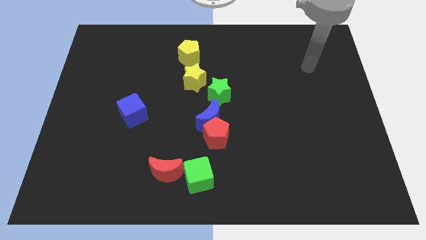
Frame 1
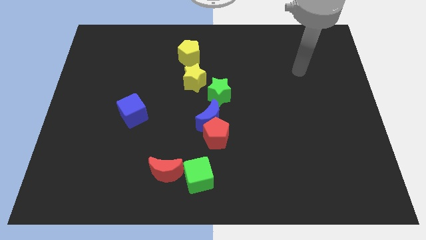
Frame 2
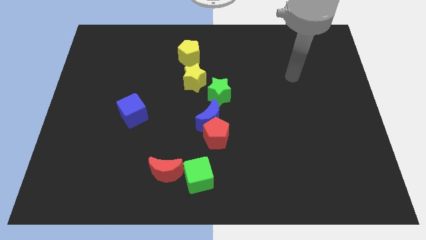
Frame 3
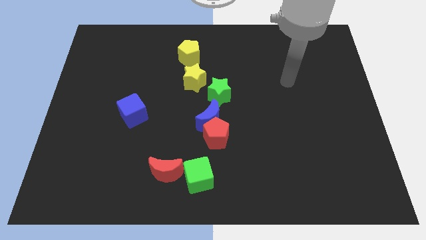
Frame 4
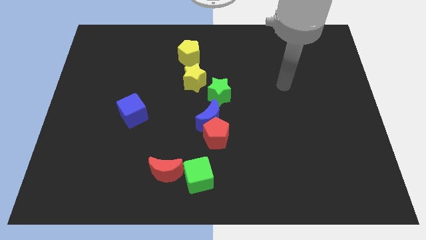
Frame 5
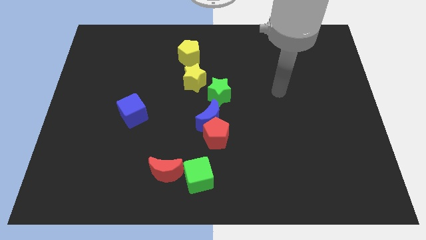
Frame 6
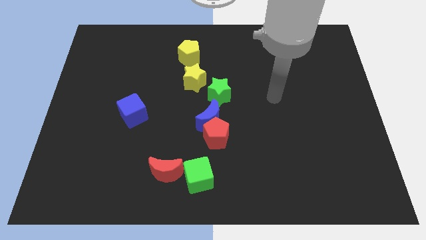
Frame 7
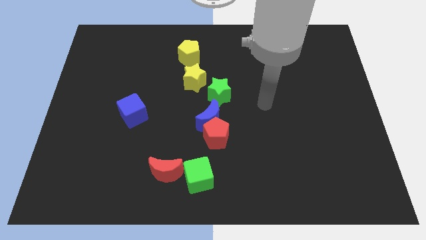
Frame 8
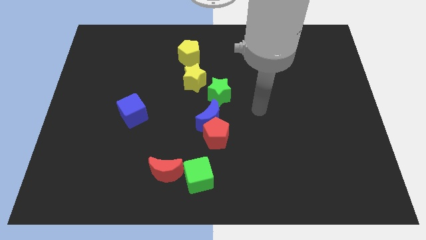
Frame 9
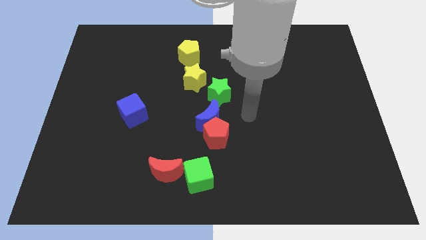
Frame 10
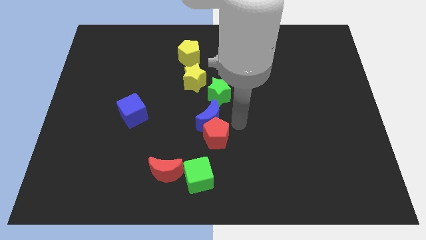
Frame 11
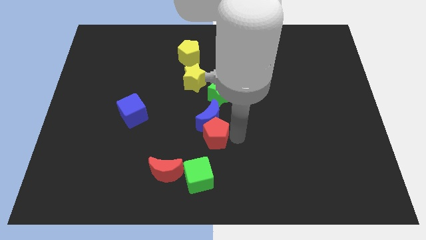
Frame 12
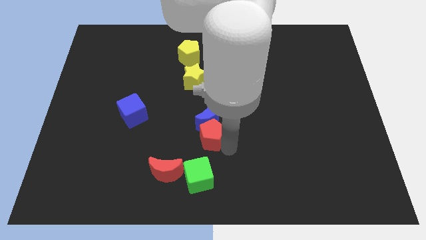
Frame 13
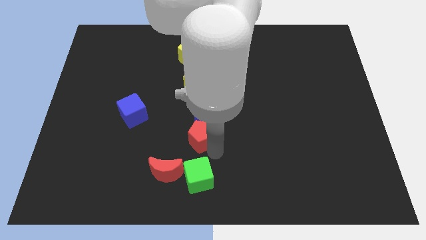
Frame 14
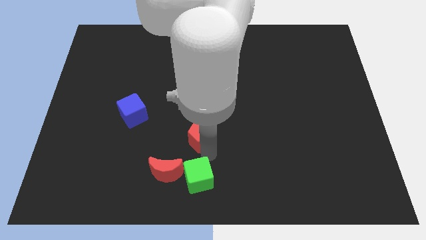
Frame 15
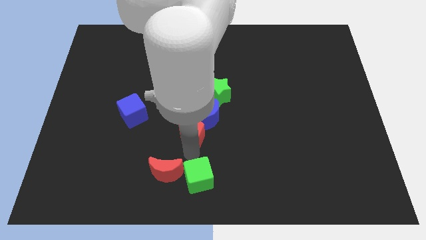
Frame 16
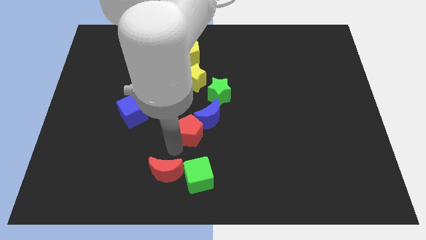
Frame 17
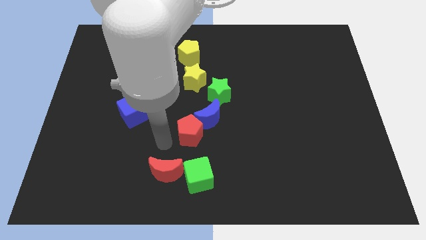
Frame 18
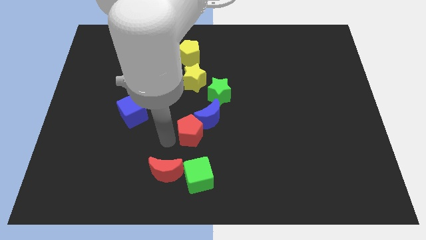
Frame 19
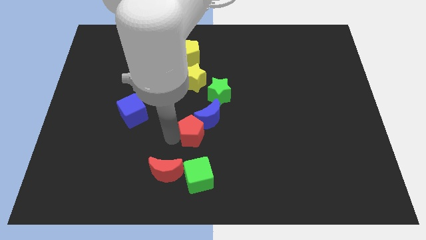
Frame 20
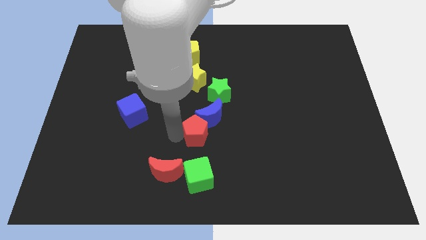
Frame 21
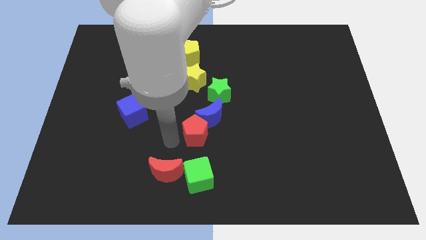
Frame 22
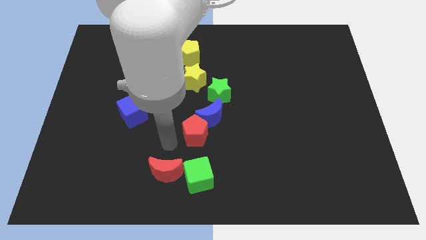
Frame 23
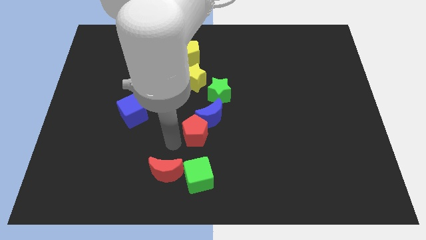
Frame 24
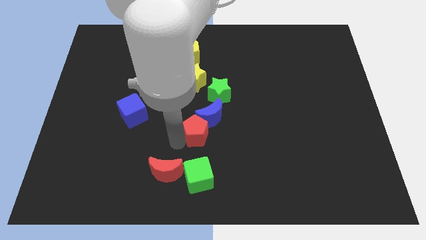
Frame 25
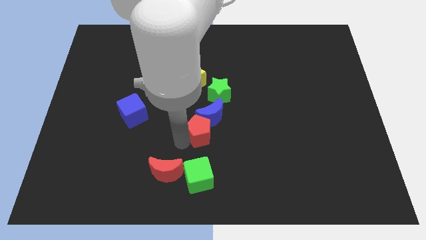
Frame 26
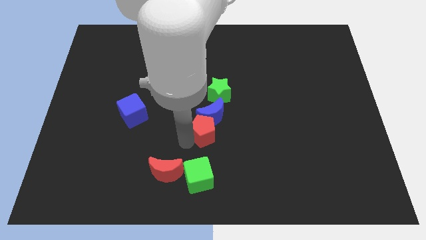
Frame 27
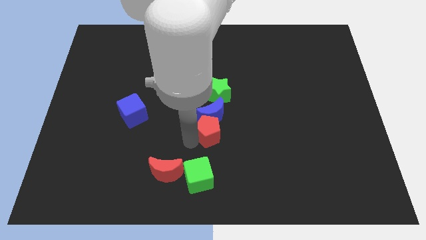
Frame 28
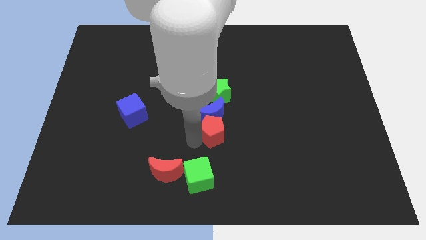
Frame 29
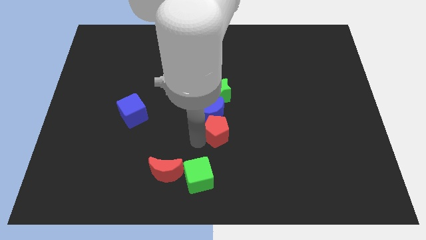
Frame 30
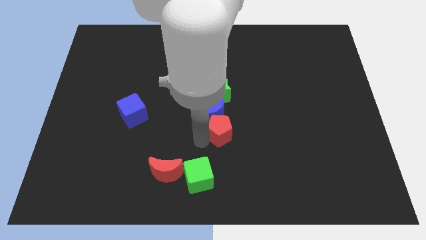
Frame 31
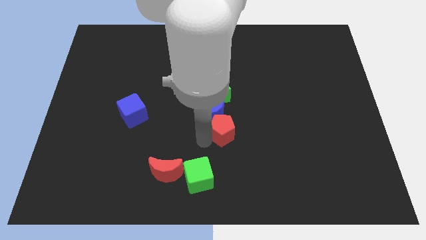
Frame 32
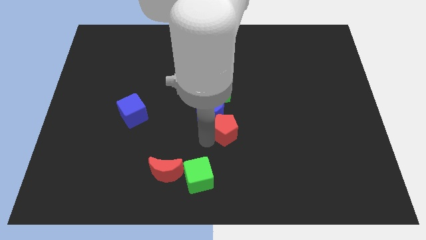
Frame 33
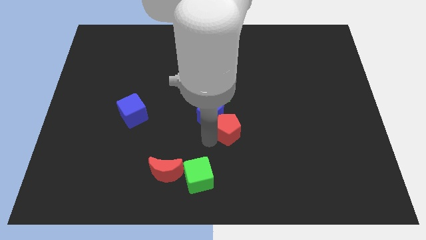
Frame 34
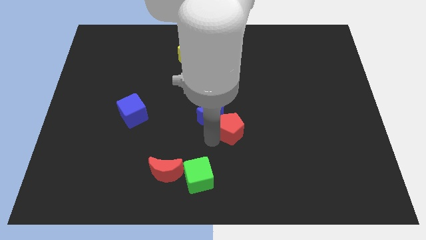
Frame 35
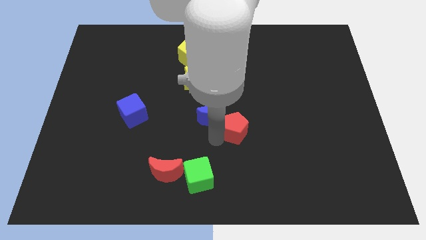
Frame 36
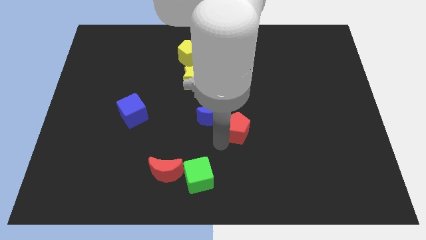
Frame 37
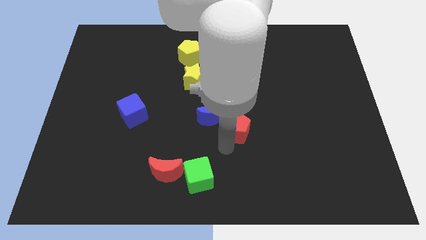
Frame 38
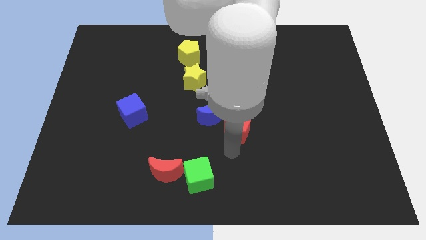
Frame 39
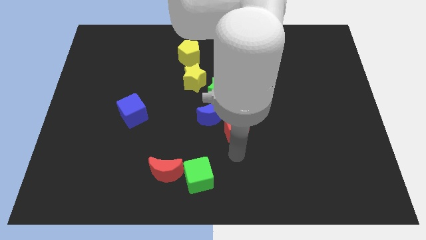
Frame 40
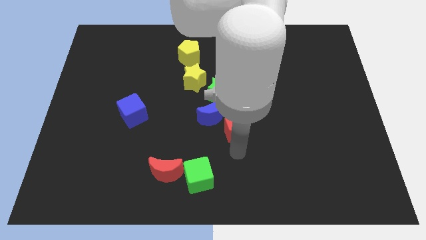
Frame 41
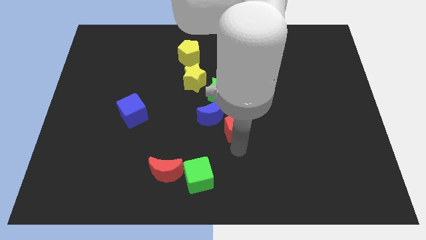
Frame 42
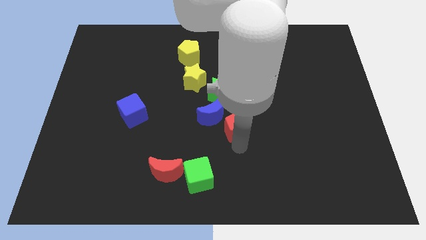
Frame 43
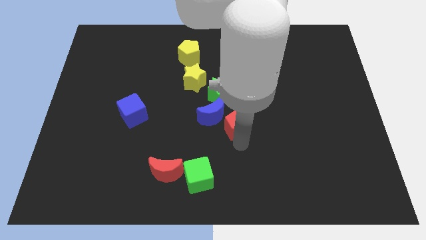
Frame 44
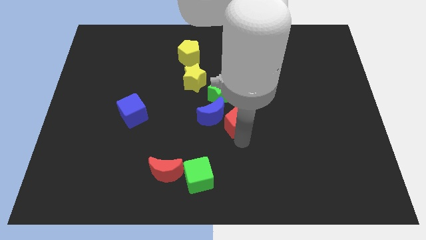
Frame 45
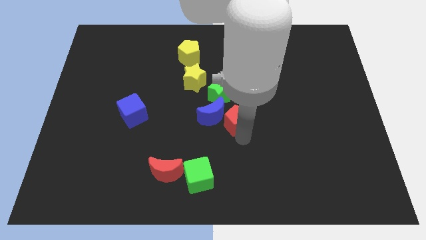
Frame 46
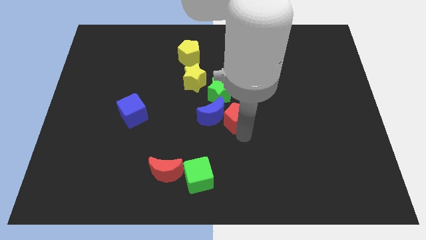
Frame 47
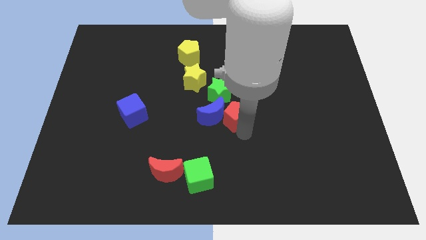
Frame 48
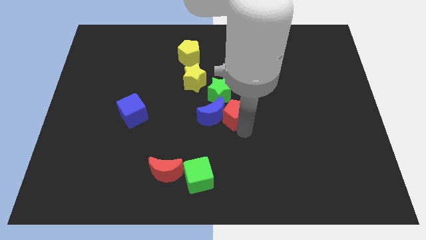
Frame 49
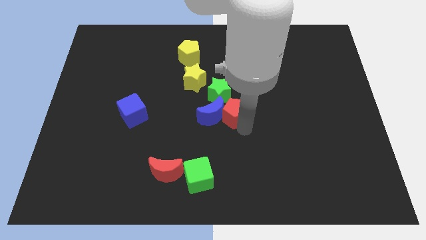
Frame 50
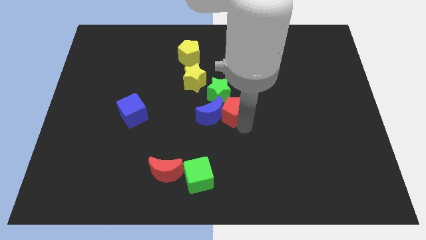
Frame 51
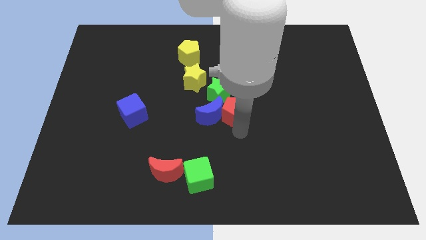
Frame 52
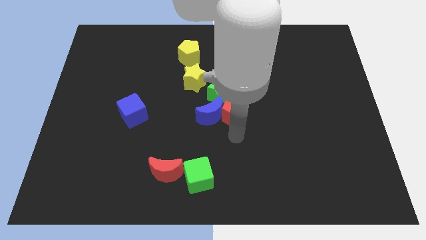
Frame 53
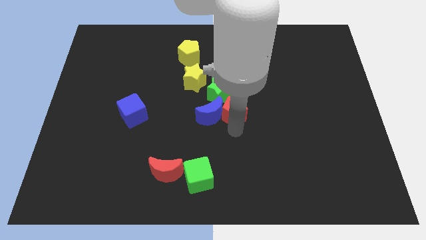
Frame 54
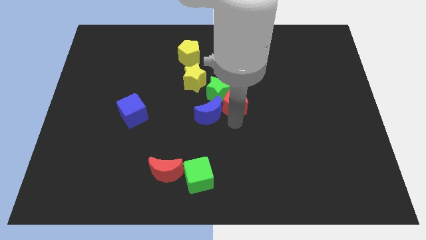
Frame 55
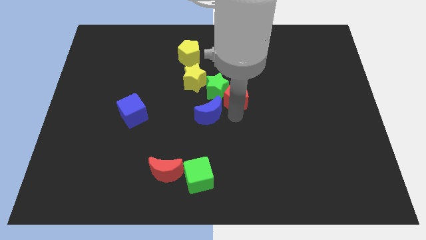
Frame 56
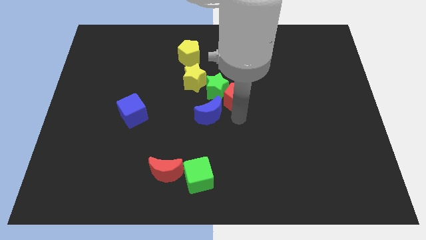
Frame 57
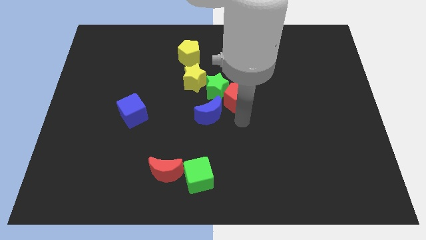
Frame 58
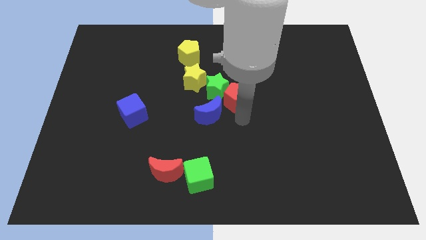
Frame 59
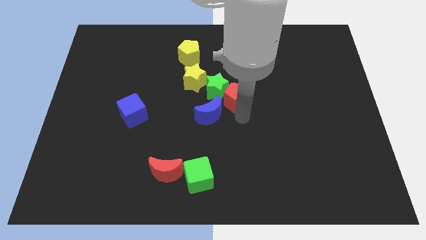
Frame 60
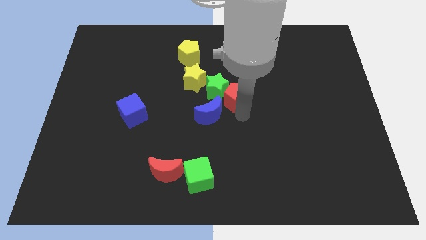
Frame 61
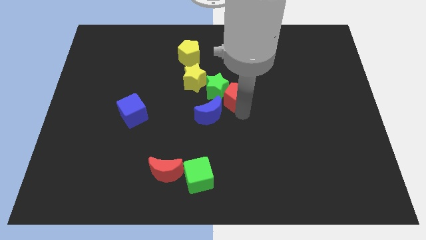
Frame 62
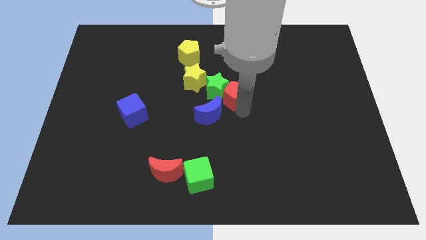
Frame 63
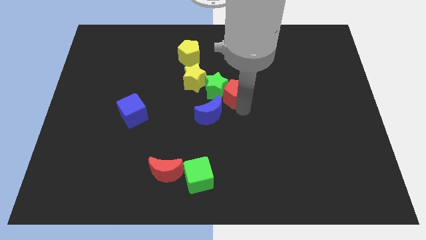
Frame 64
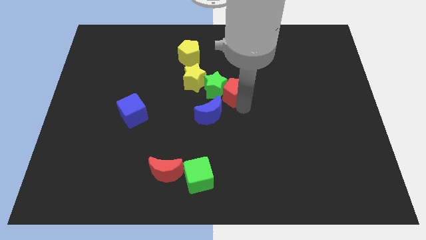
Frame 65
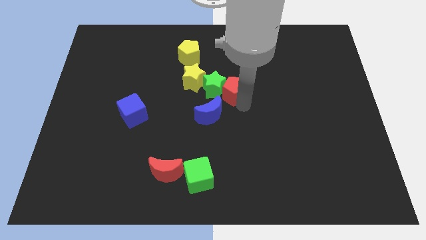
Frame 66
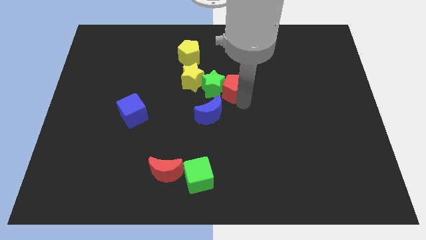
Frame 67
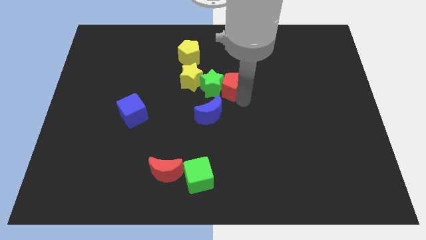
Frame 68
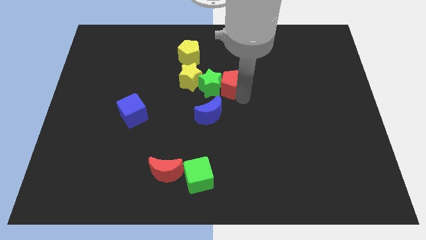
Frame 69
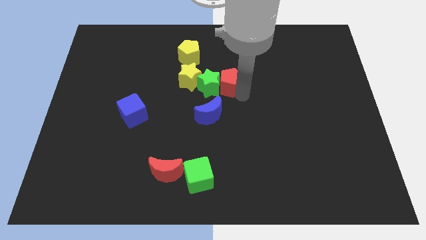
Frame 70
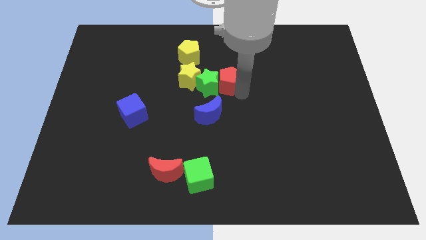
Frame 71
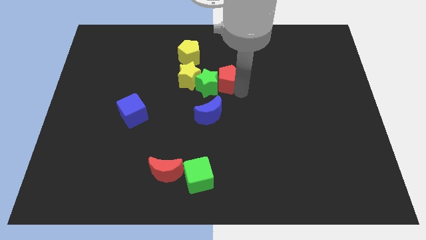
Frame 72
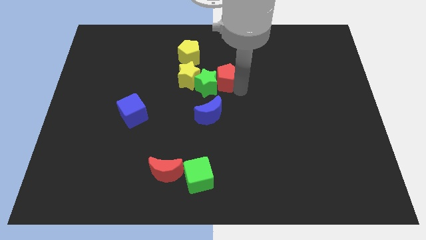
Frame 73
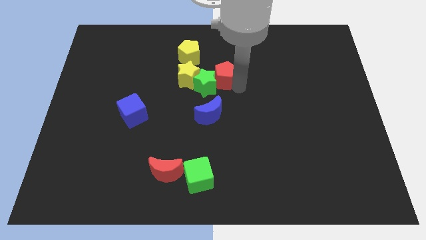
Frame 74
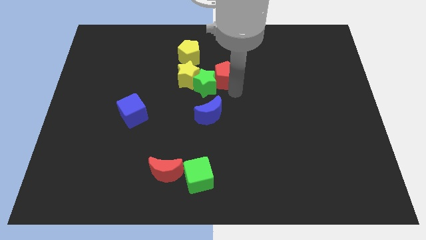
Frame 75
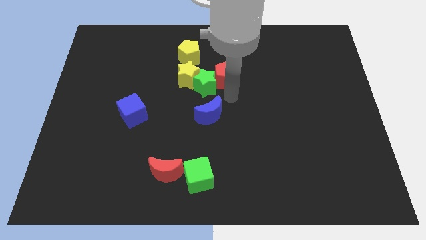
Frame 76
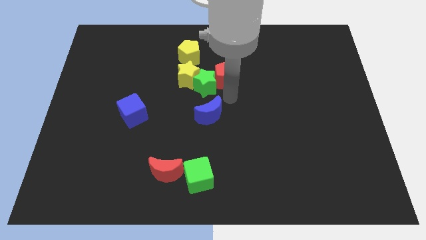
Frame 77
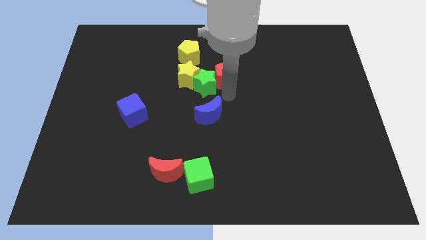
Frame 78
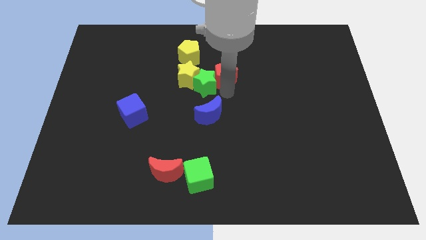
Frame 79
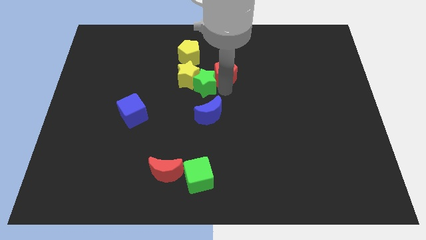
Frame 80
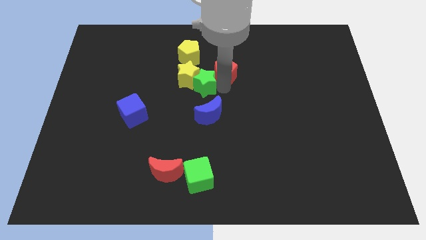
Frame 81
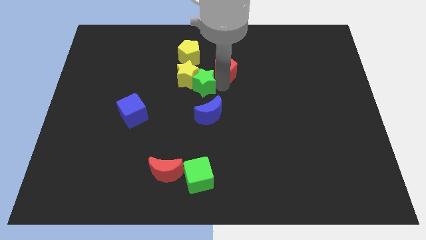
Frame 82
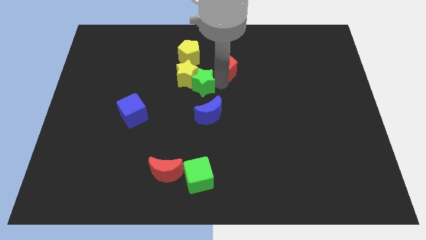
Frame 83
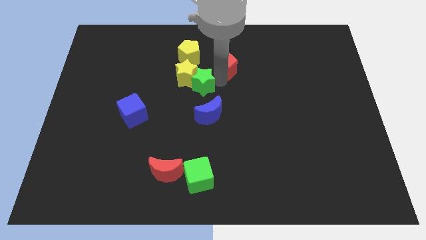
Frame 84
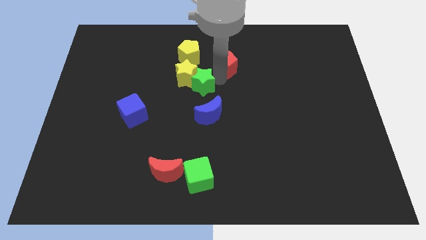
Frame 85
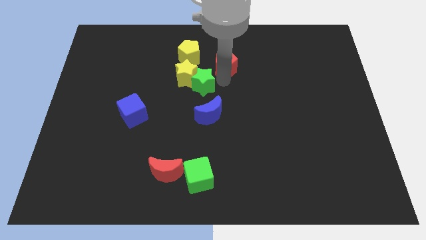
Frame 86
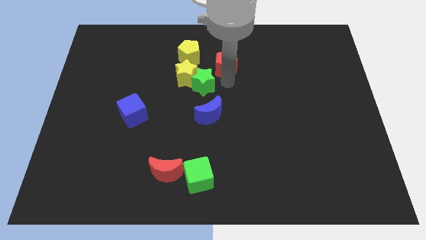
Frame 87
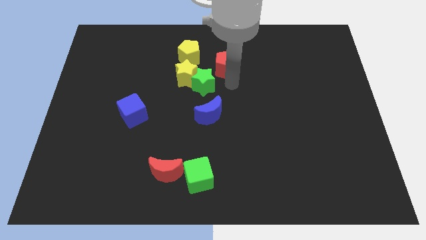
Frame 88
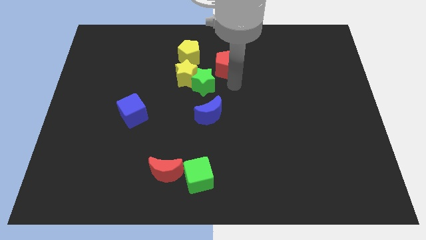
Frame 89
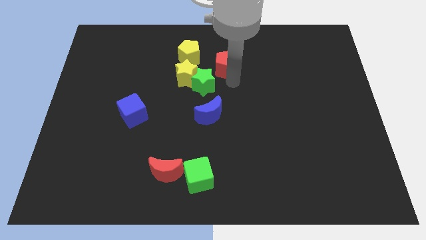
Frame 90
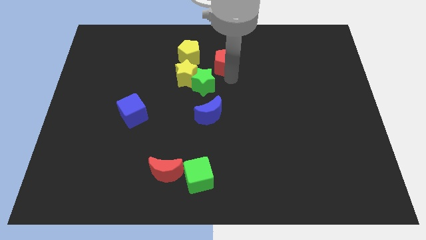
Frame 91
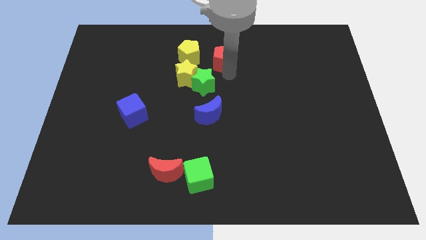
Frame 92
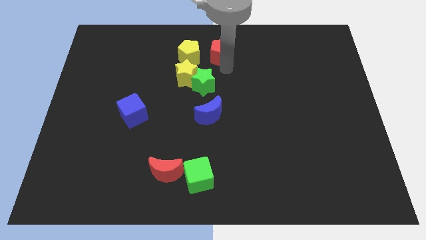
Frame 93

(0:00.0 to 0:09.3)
move the red pentagon to the top side
